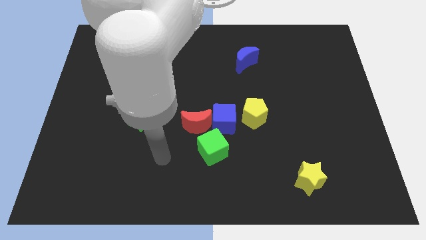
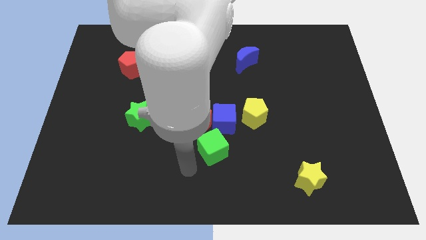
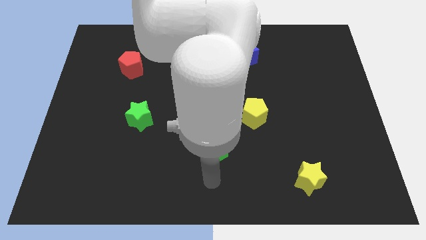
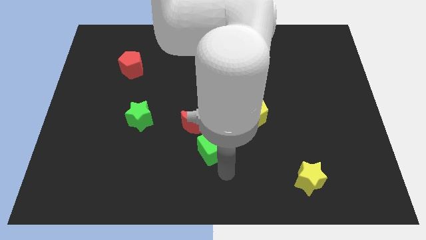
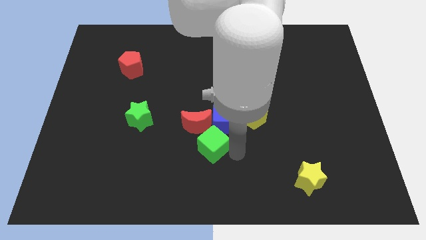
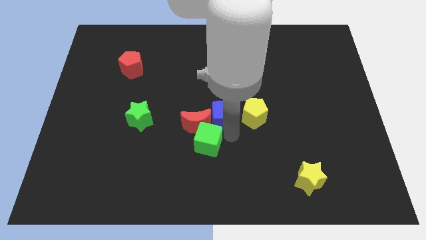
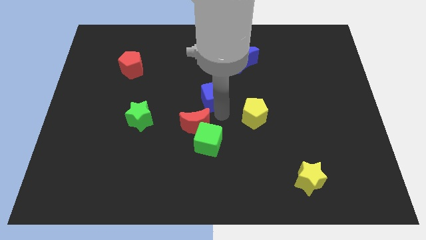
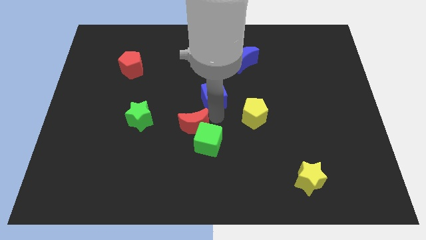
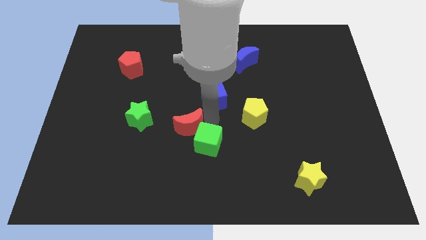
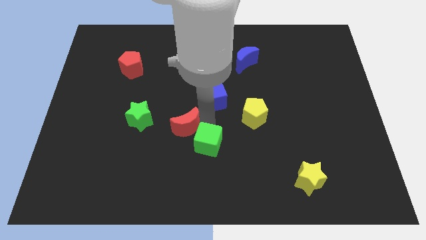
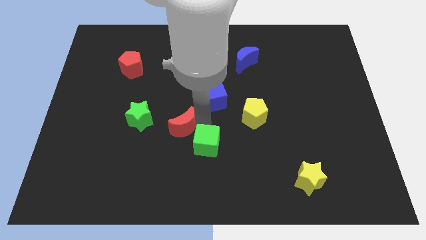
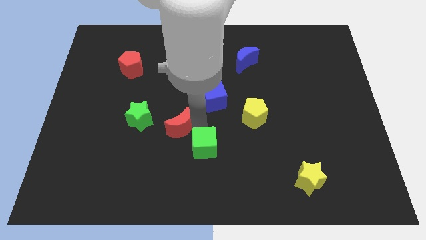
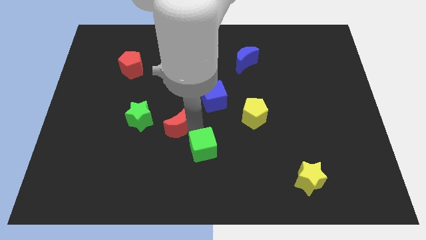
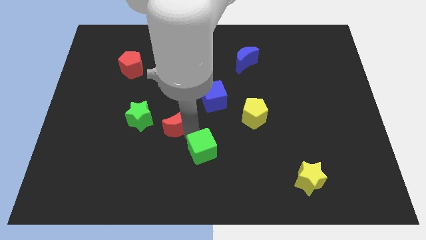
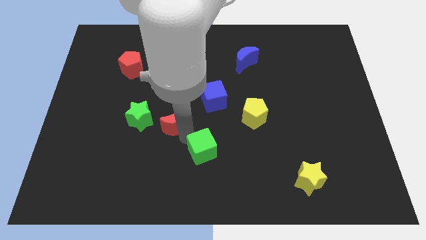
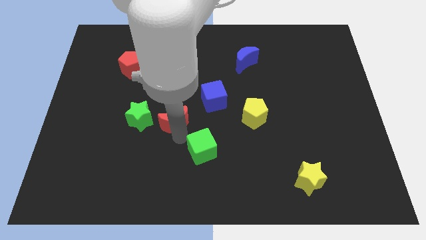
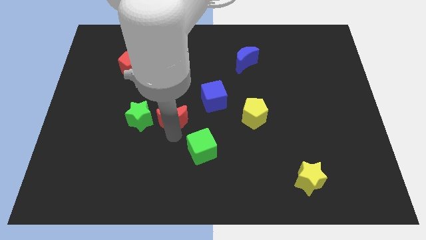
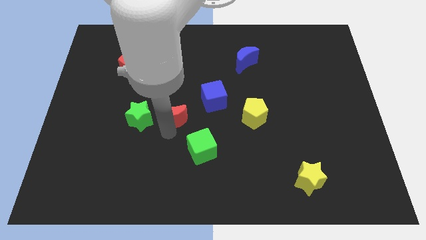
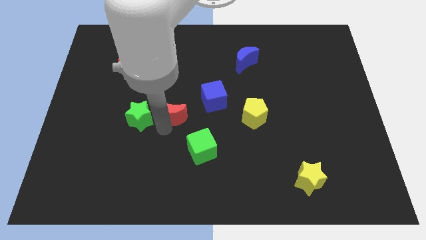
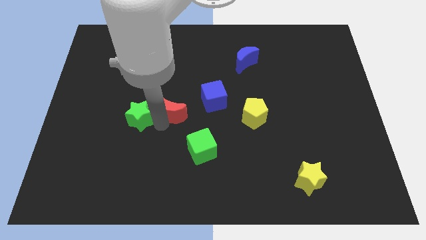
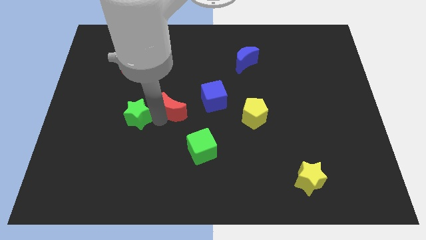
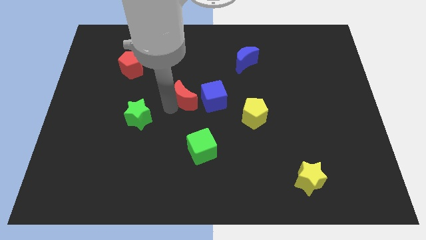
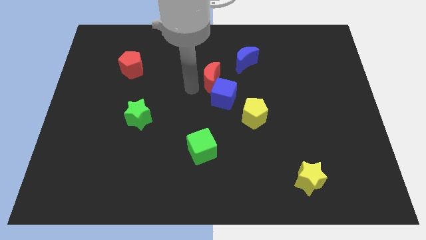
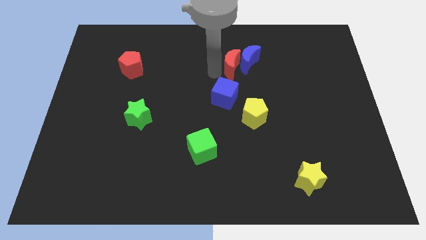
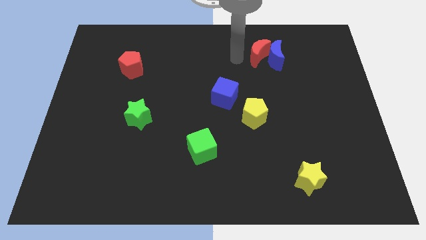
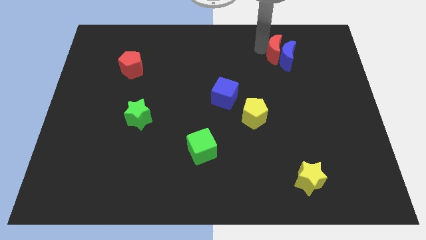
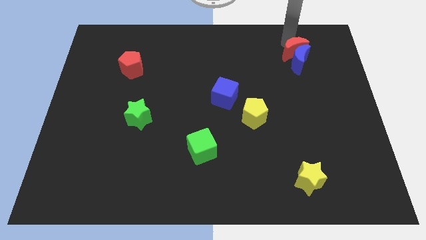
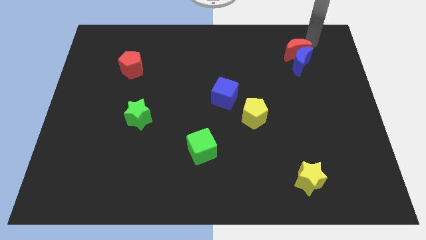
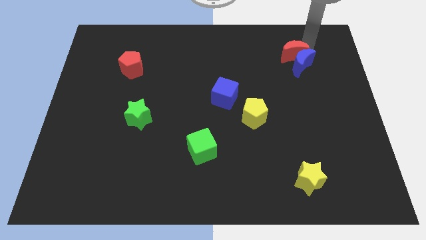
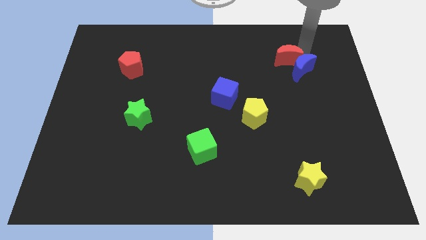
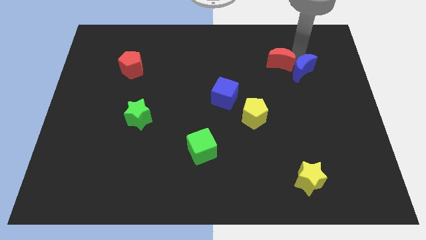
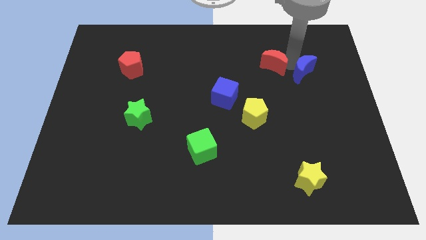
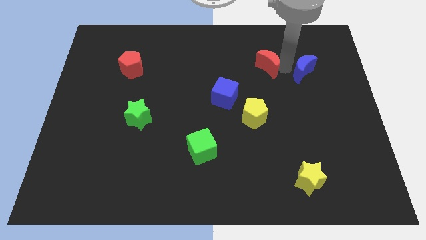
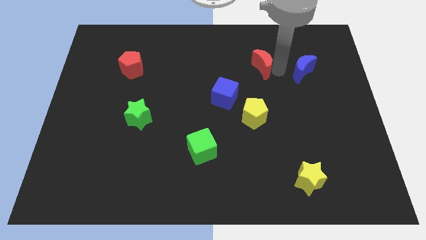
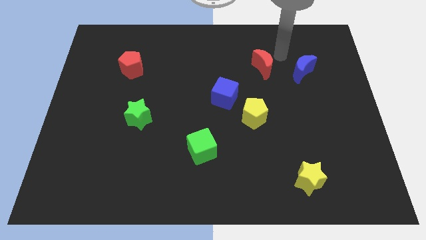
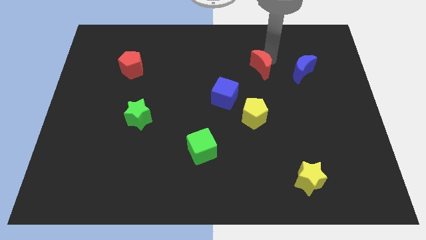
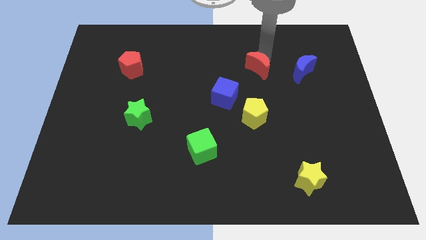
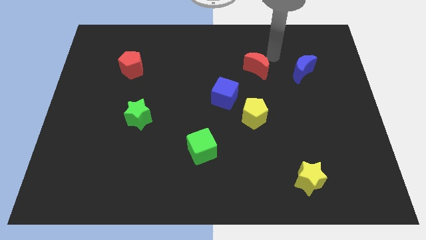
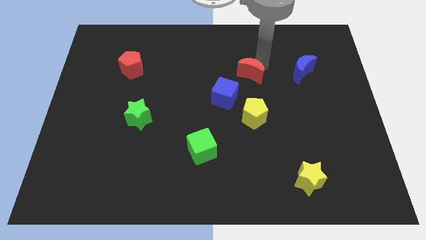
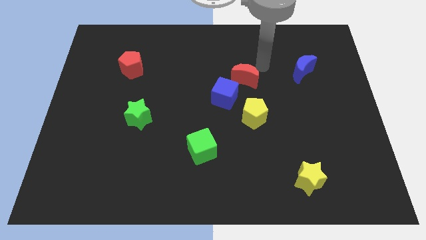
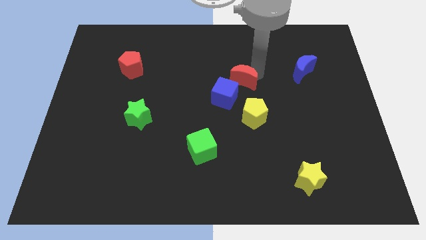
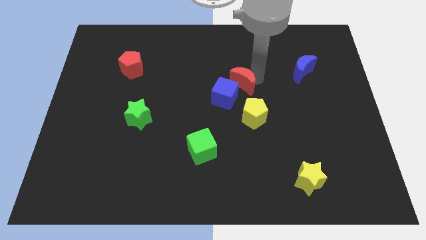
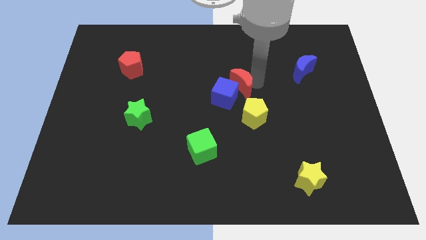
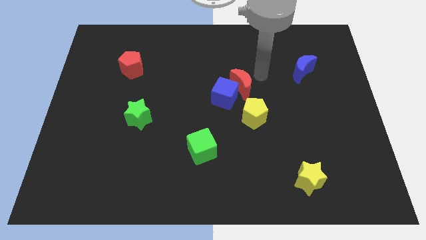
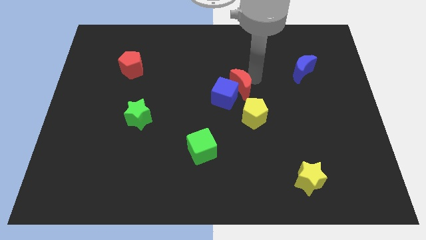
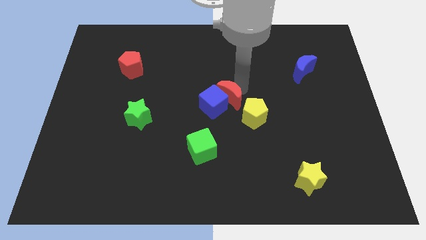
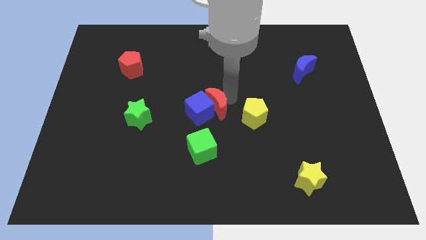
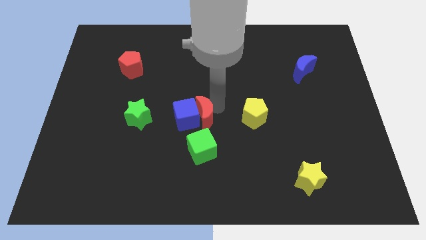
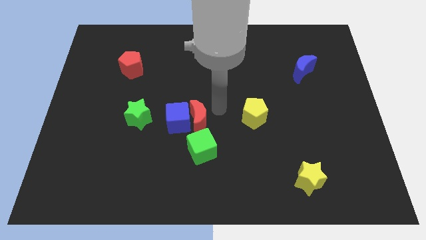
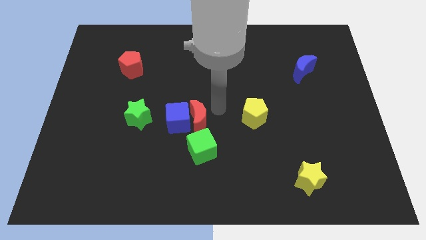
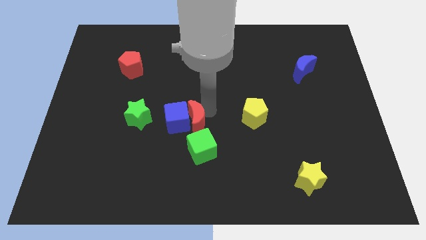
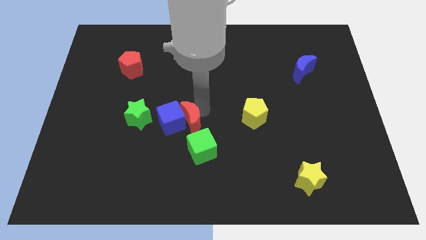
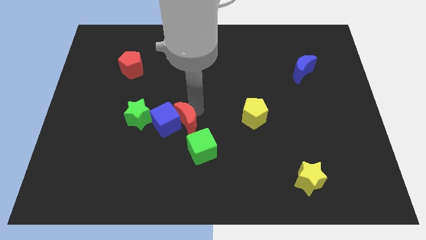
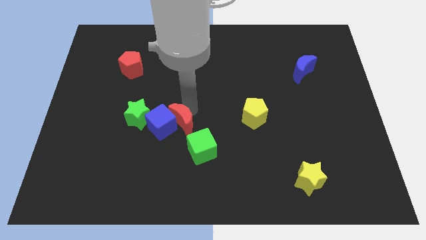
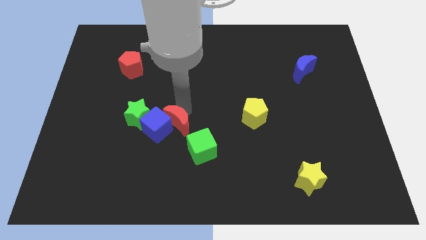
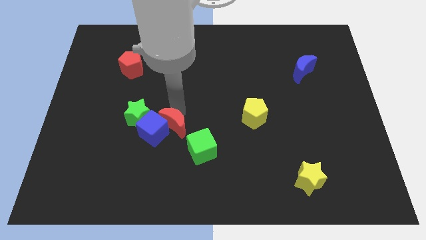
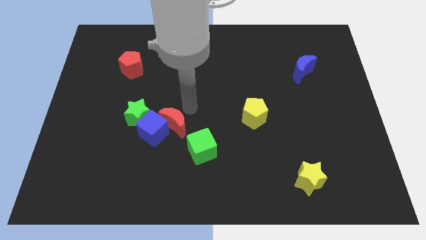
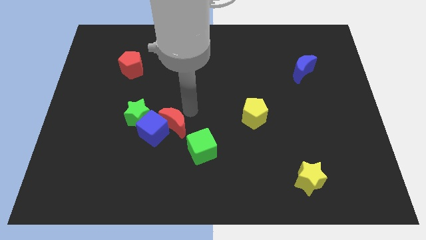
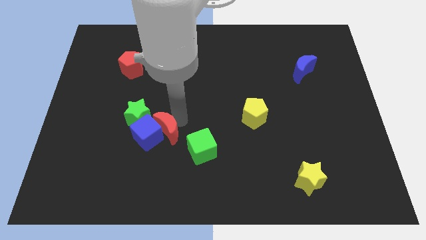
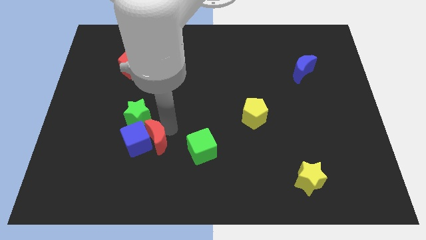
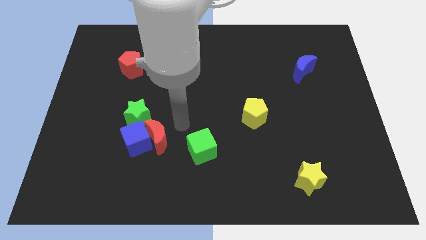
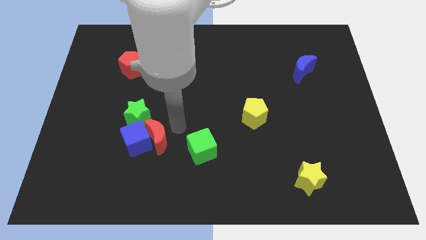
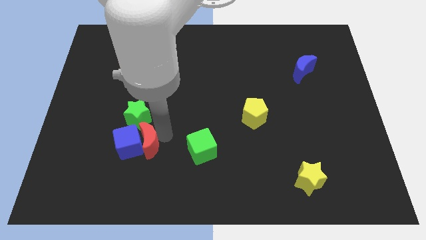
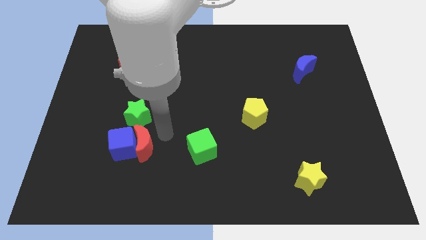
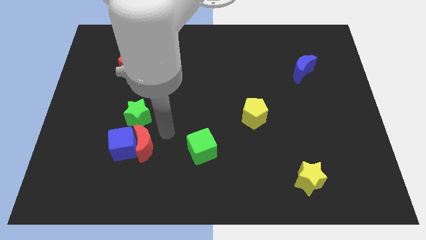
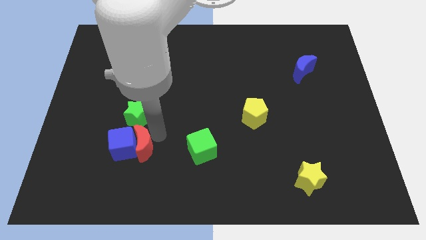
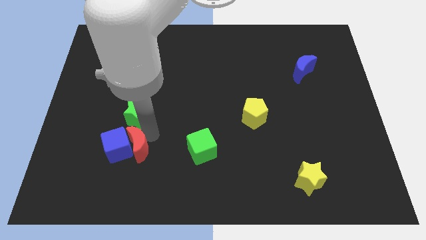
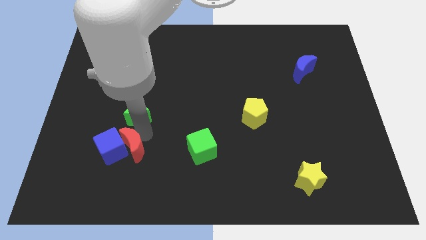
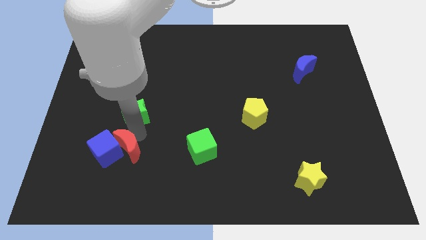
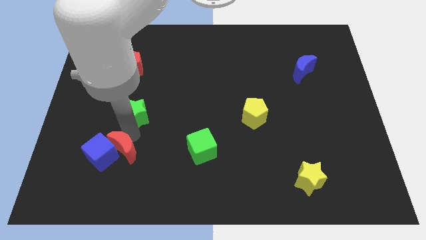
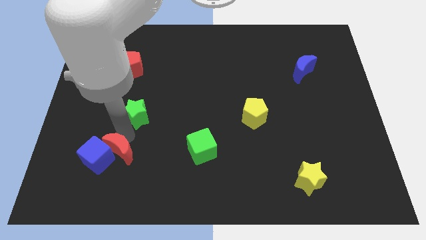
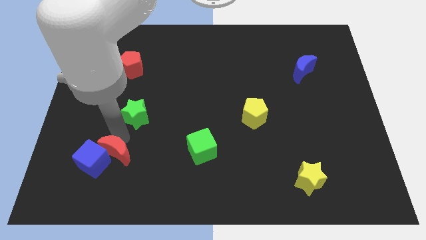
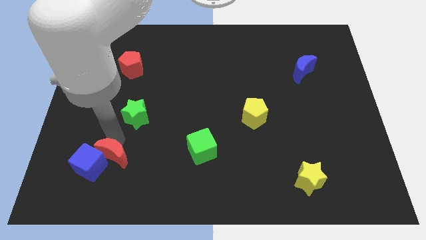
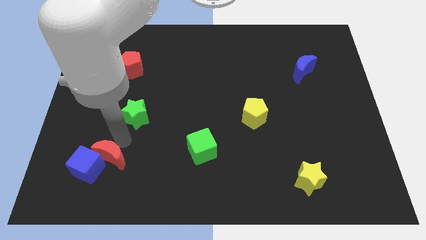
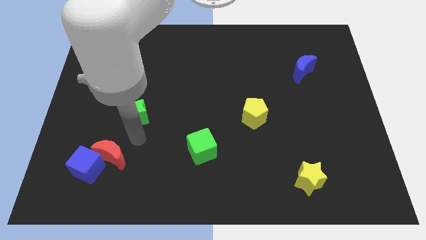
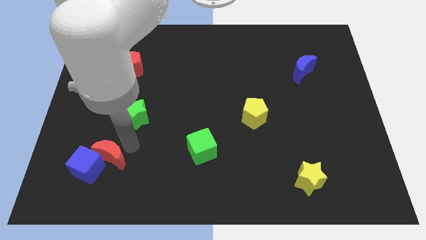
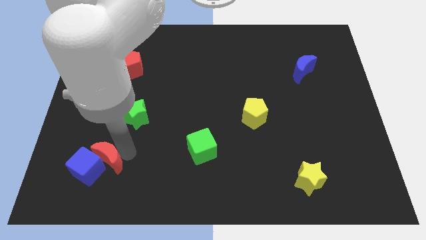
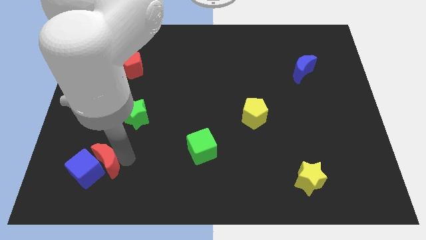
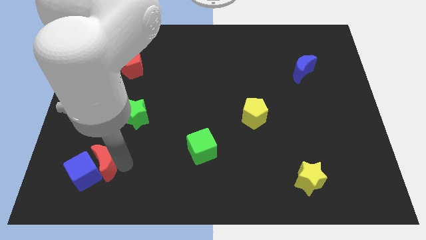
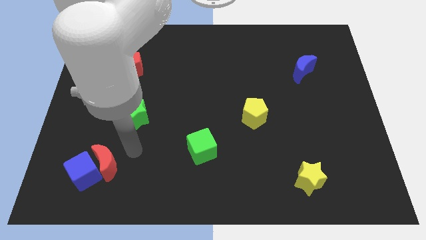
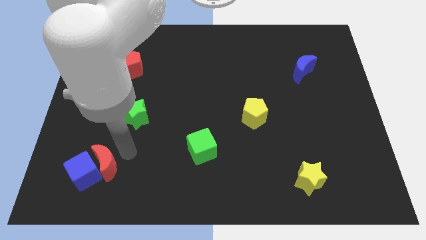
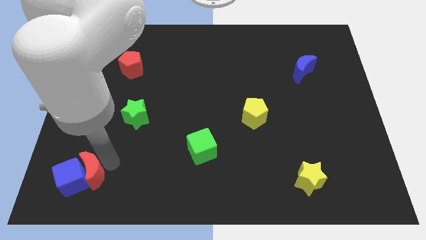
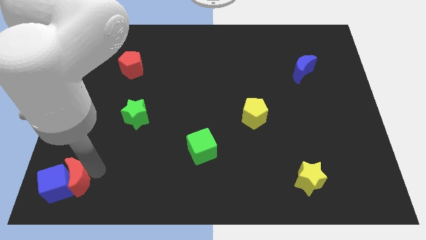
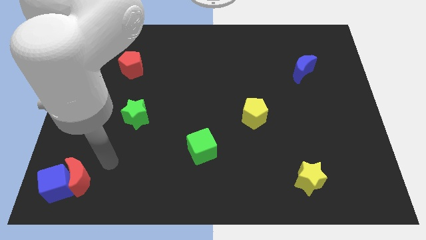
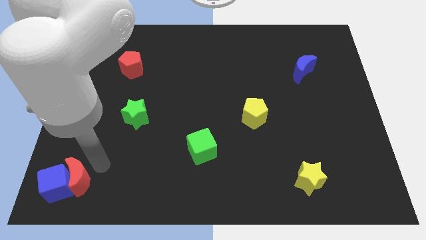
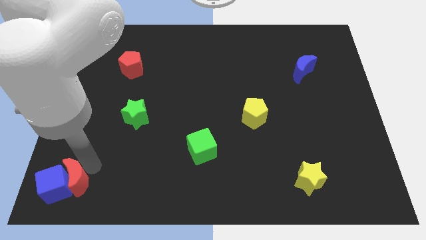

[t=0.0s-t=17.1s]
push the red moon to the bottom left of the board
